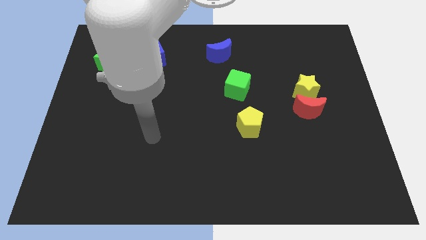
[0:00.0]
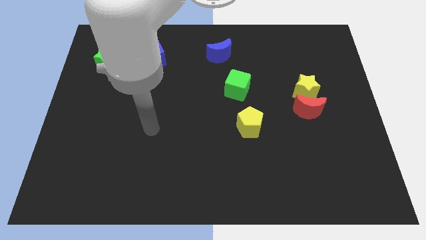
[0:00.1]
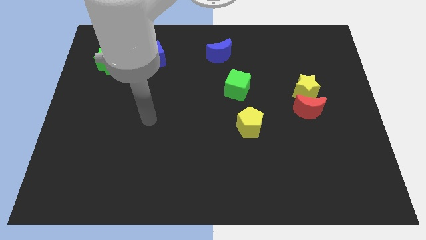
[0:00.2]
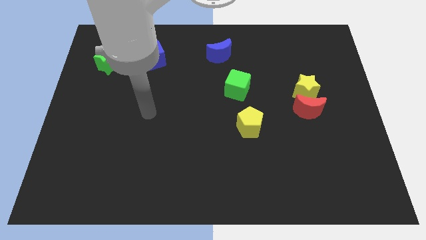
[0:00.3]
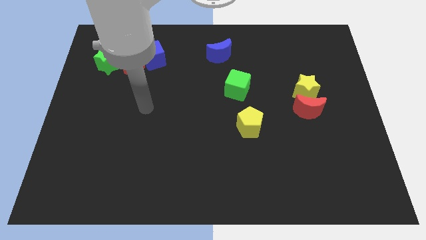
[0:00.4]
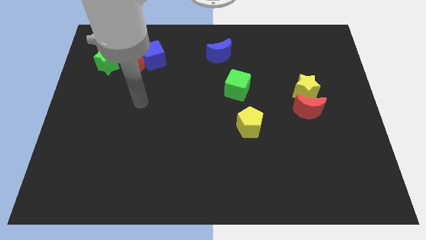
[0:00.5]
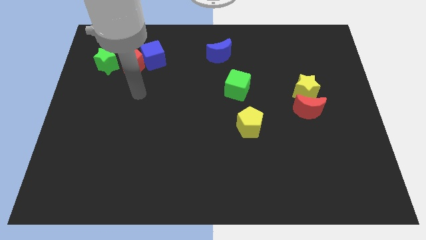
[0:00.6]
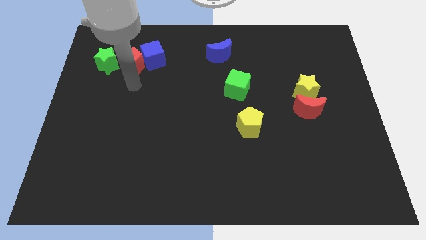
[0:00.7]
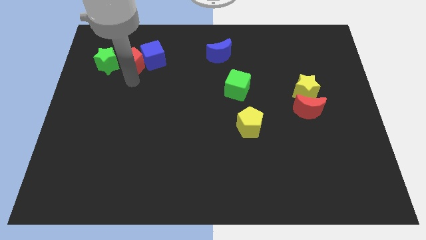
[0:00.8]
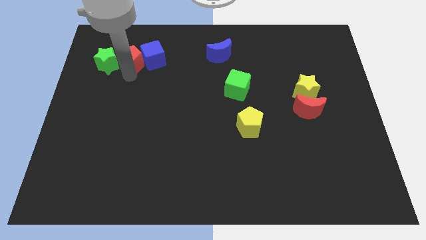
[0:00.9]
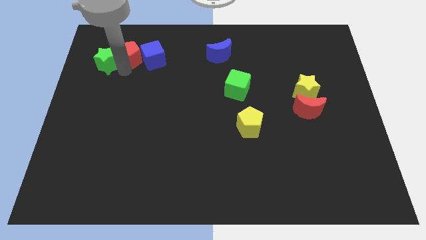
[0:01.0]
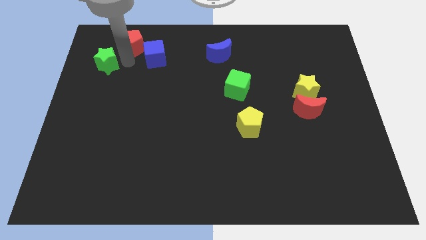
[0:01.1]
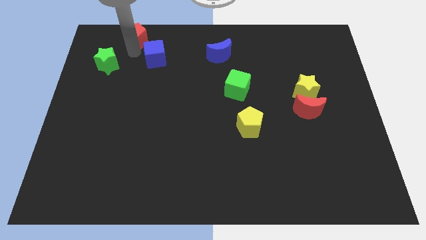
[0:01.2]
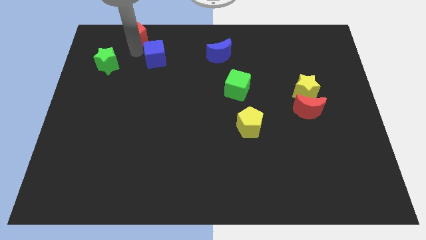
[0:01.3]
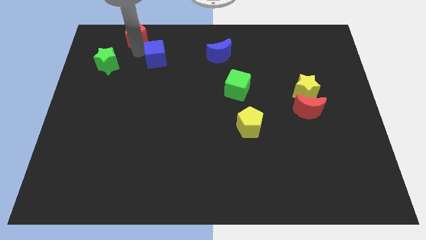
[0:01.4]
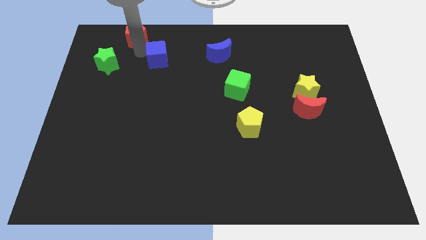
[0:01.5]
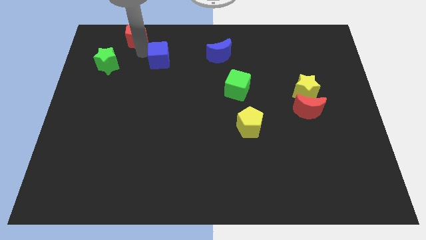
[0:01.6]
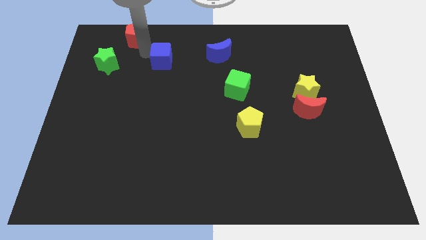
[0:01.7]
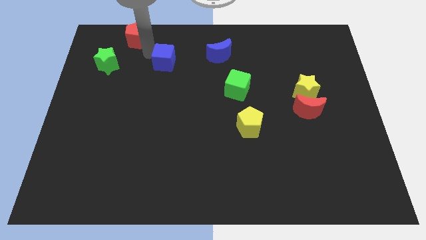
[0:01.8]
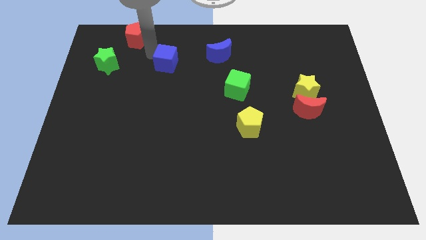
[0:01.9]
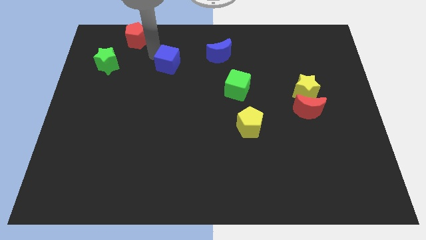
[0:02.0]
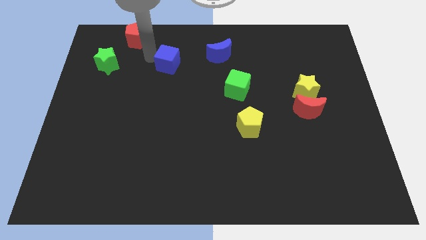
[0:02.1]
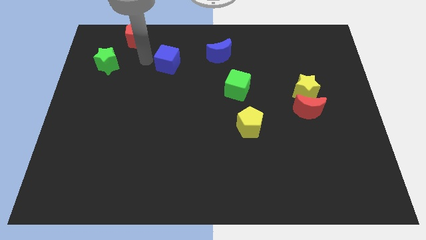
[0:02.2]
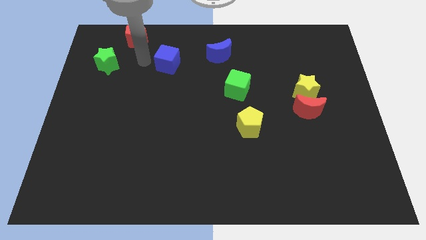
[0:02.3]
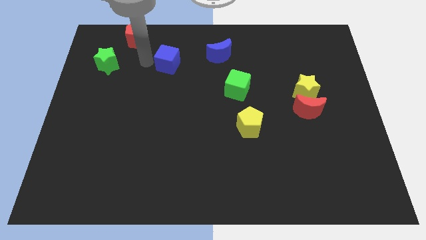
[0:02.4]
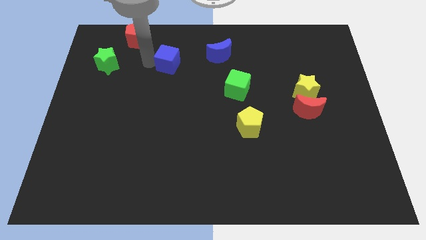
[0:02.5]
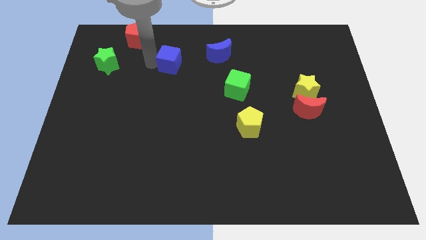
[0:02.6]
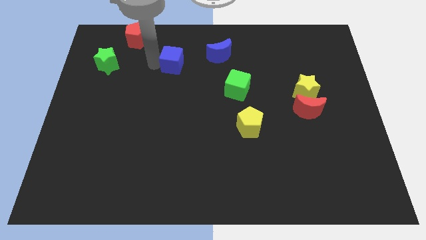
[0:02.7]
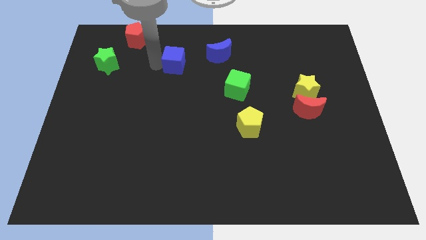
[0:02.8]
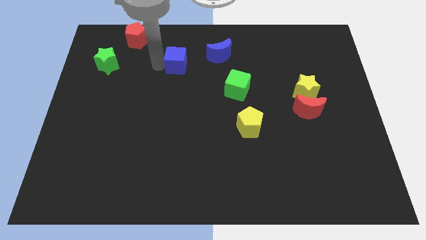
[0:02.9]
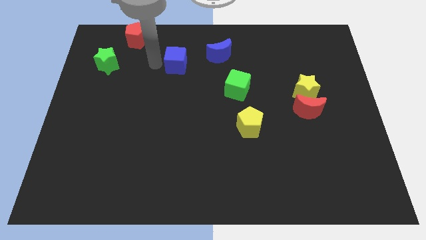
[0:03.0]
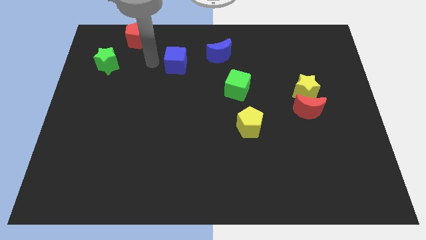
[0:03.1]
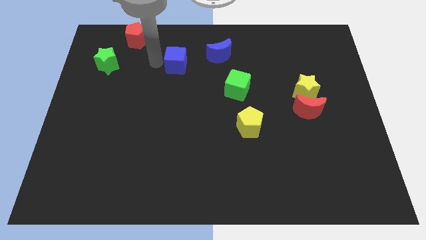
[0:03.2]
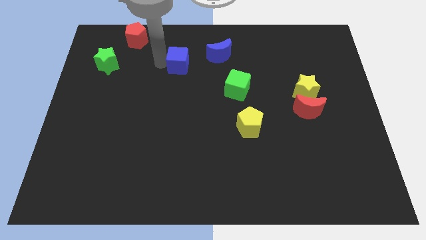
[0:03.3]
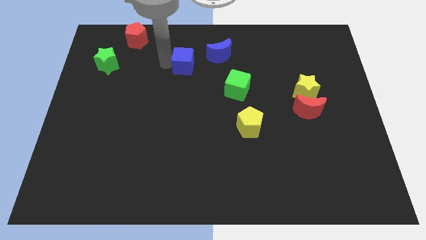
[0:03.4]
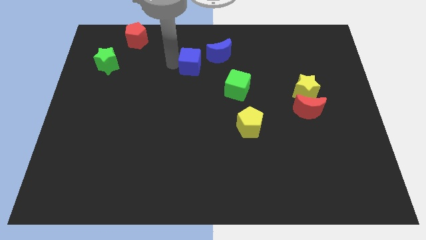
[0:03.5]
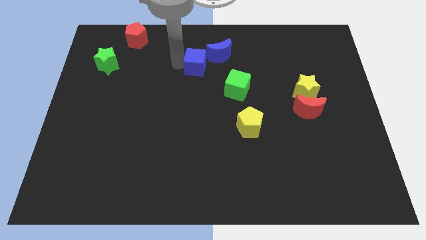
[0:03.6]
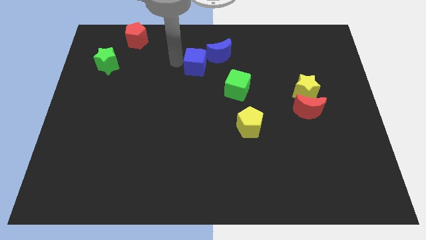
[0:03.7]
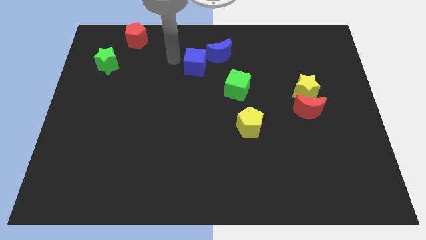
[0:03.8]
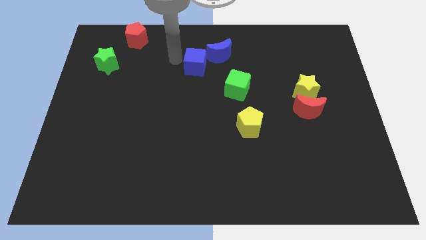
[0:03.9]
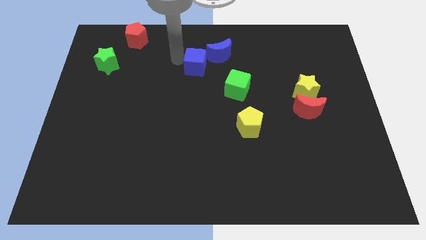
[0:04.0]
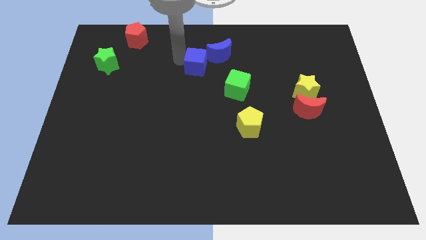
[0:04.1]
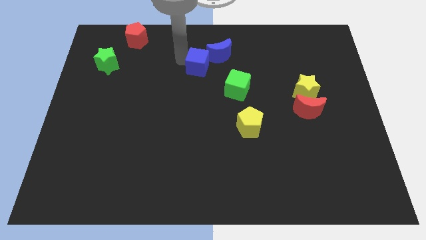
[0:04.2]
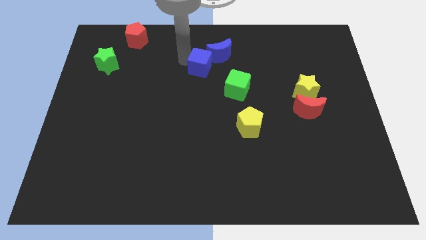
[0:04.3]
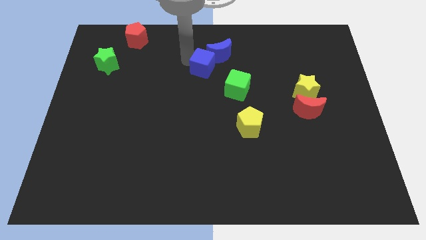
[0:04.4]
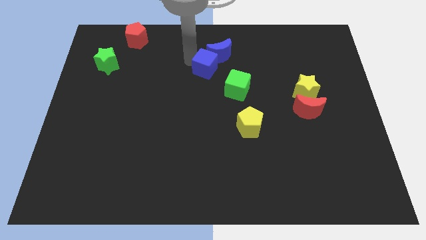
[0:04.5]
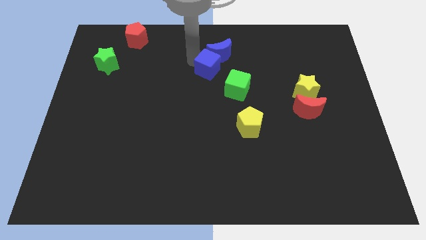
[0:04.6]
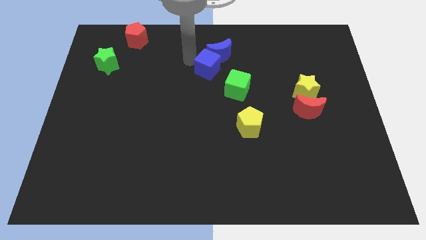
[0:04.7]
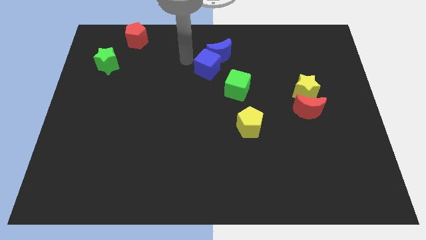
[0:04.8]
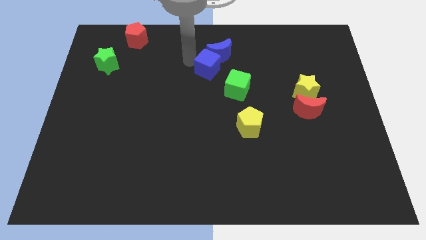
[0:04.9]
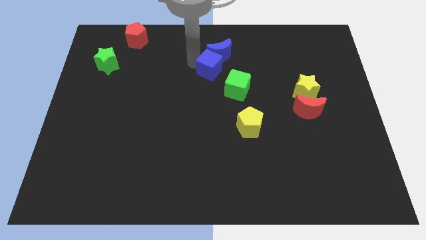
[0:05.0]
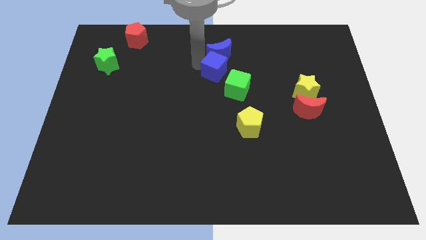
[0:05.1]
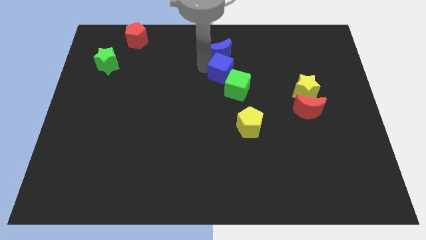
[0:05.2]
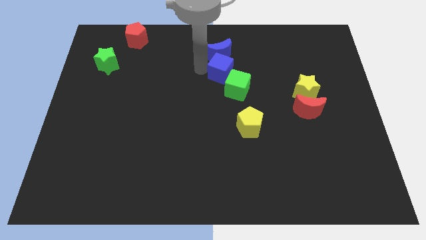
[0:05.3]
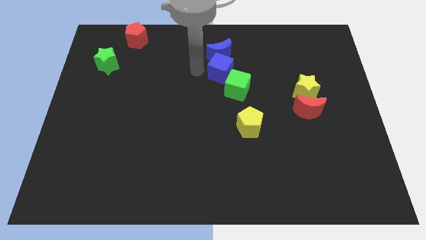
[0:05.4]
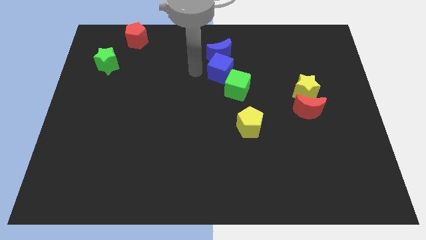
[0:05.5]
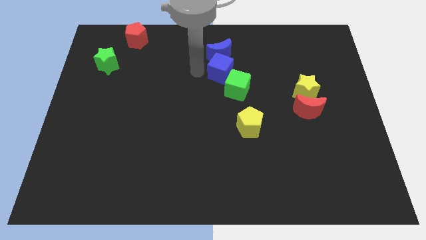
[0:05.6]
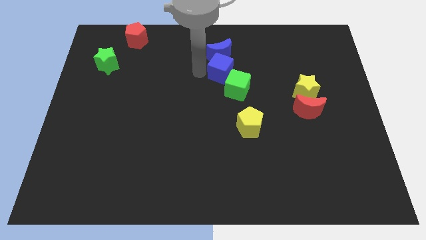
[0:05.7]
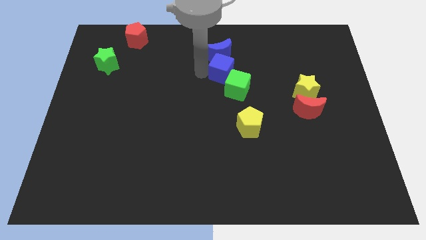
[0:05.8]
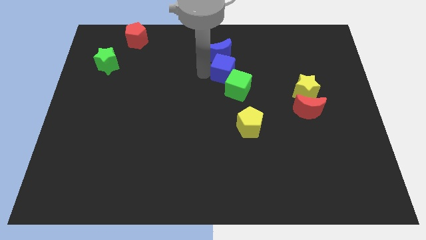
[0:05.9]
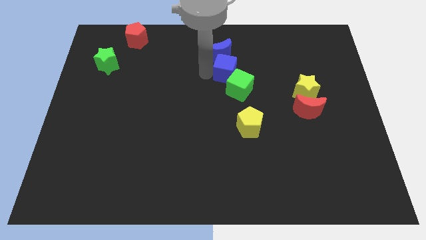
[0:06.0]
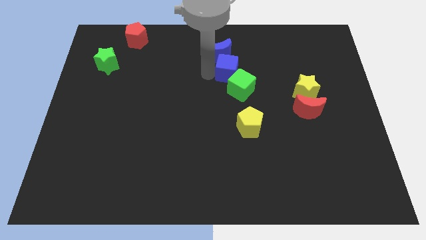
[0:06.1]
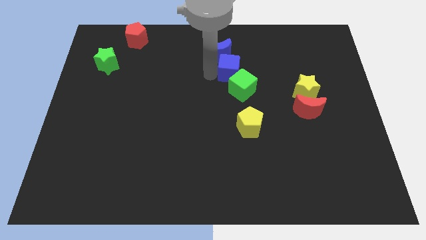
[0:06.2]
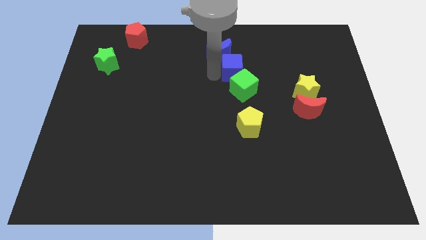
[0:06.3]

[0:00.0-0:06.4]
slide the blue cube to the right

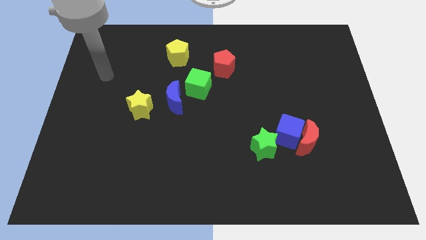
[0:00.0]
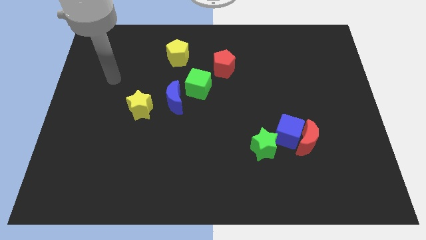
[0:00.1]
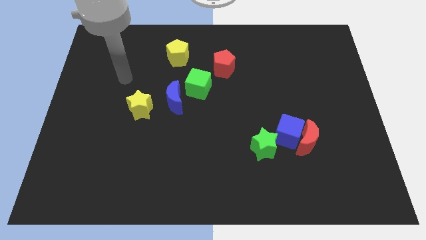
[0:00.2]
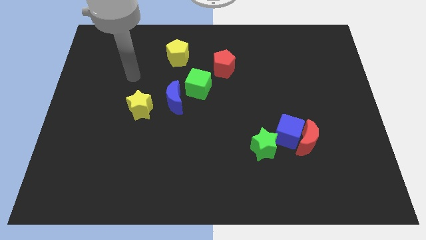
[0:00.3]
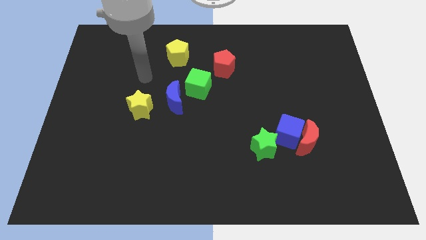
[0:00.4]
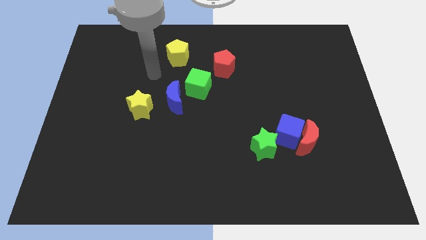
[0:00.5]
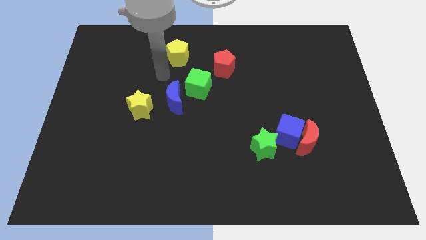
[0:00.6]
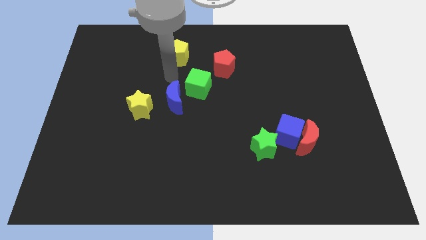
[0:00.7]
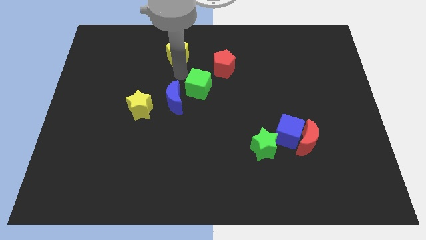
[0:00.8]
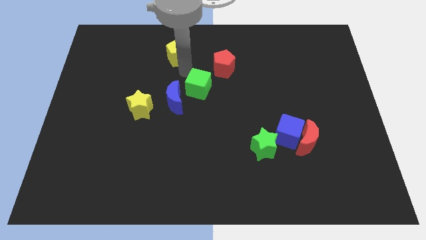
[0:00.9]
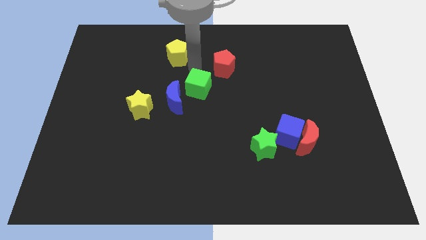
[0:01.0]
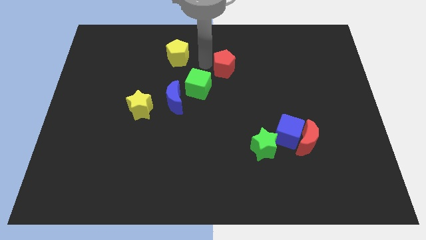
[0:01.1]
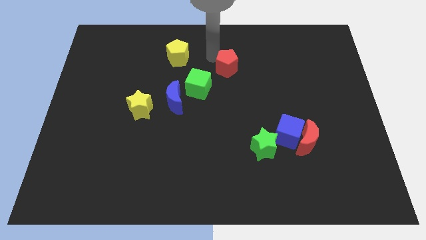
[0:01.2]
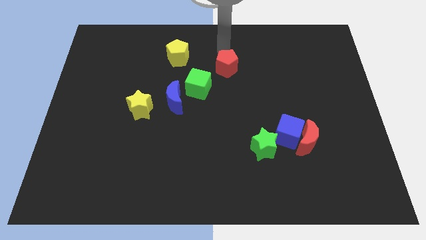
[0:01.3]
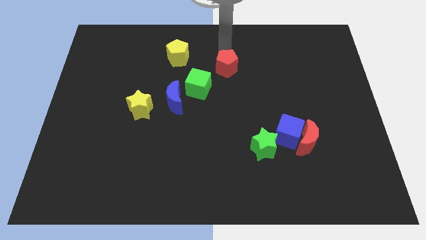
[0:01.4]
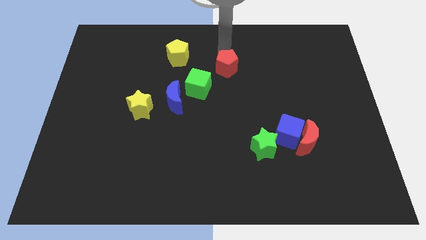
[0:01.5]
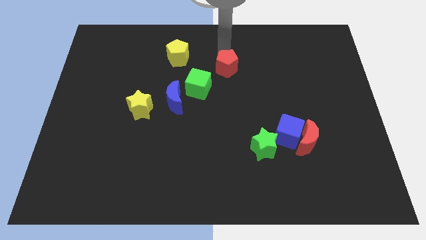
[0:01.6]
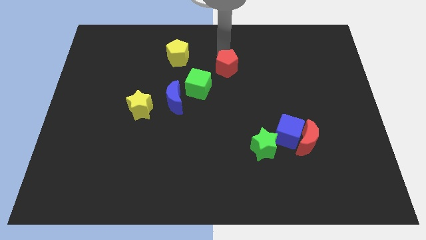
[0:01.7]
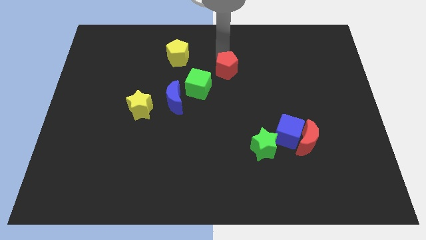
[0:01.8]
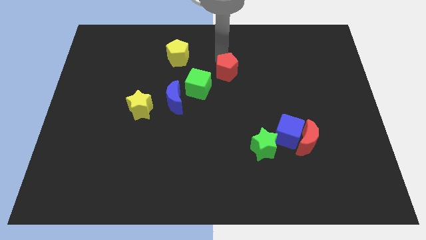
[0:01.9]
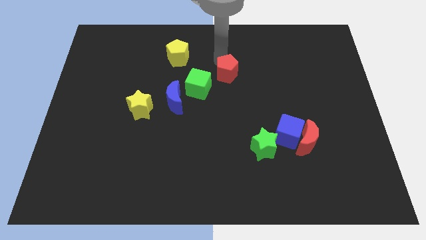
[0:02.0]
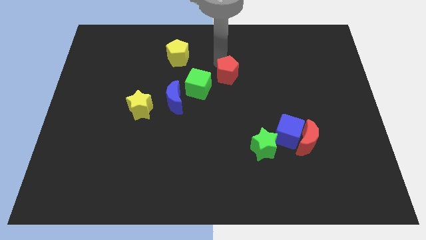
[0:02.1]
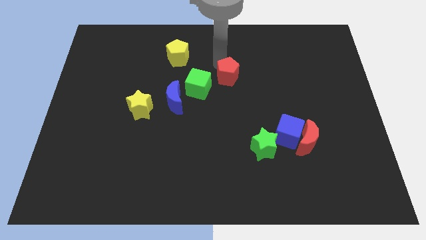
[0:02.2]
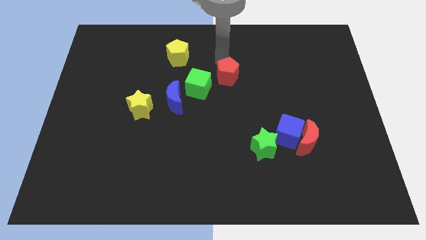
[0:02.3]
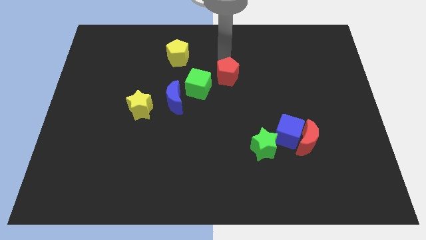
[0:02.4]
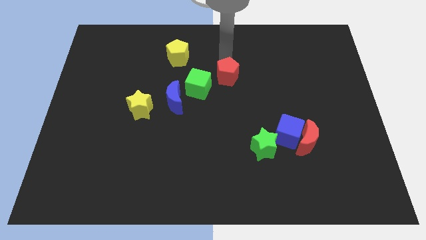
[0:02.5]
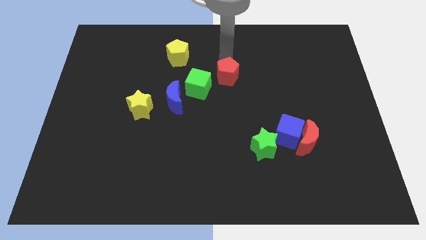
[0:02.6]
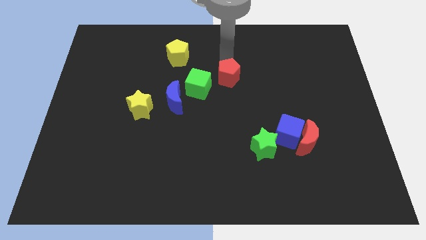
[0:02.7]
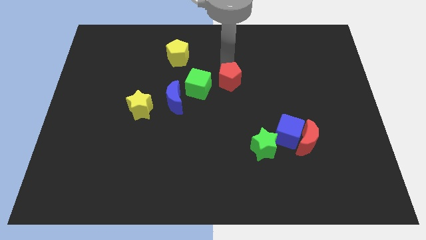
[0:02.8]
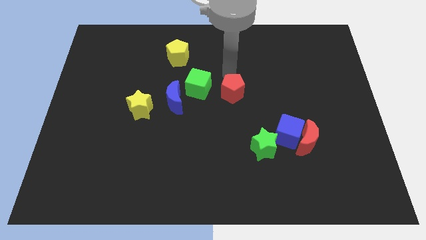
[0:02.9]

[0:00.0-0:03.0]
slightly push the red pentagon down
